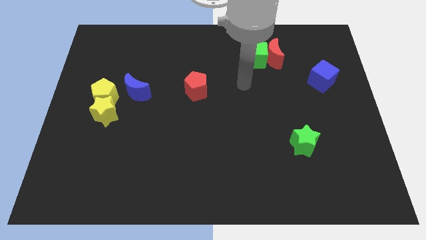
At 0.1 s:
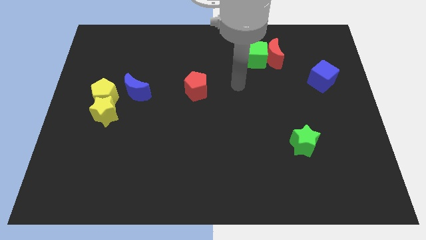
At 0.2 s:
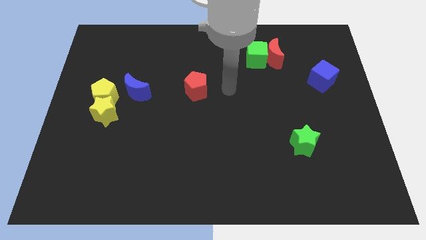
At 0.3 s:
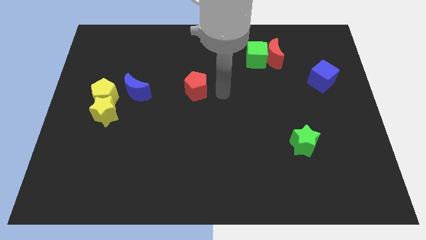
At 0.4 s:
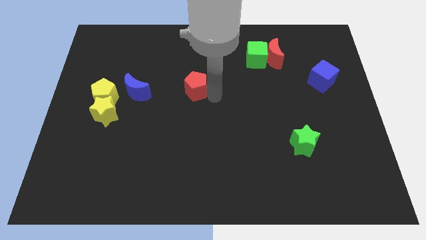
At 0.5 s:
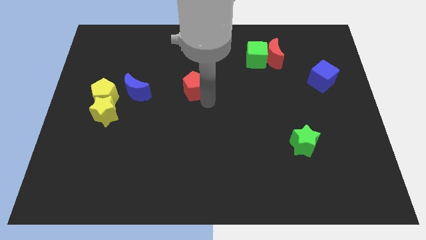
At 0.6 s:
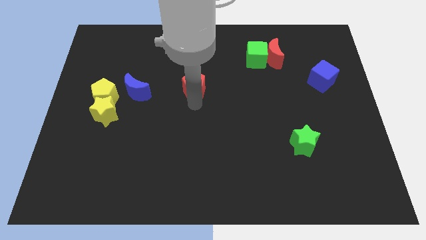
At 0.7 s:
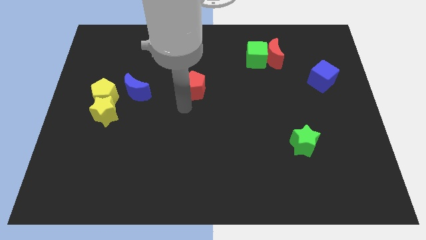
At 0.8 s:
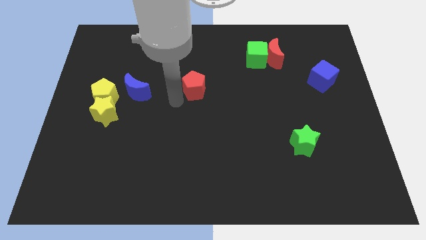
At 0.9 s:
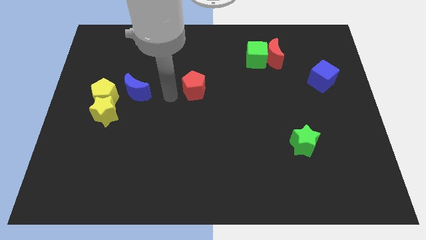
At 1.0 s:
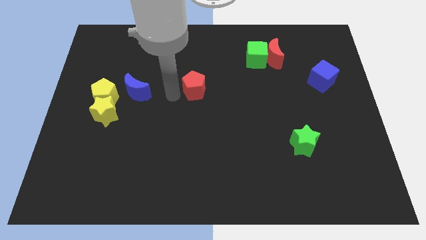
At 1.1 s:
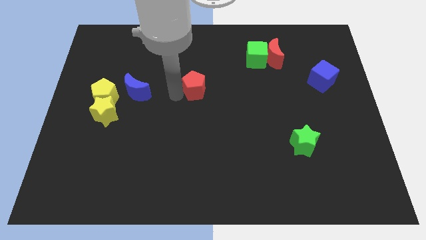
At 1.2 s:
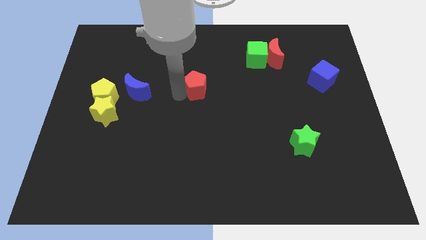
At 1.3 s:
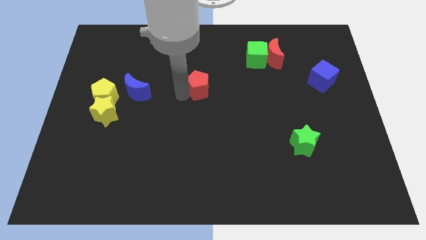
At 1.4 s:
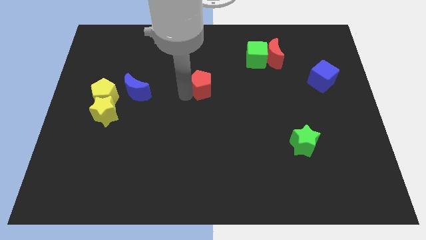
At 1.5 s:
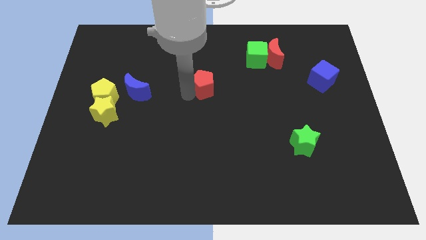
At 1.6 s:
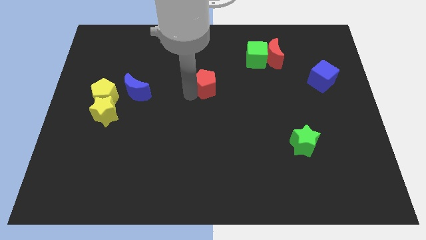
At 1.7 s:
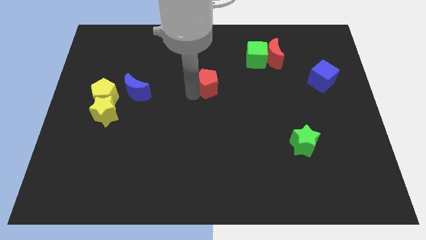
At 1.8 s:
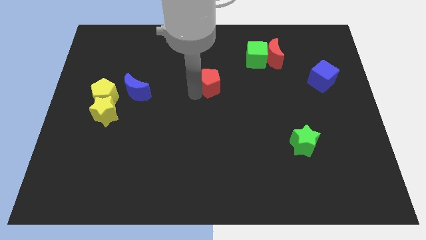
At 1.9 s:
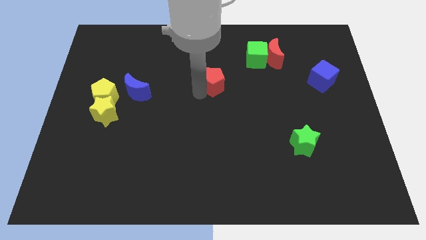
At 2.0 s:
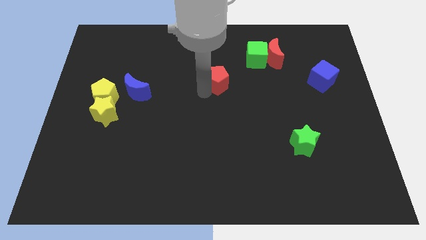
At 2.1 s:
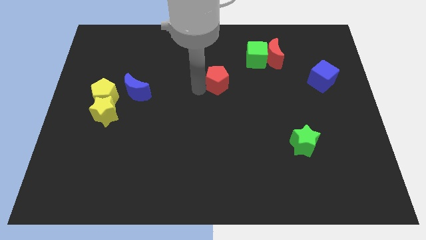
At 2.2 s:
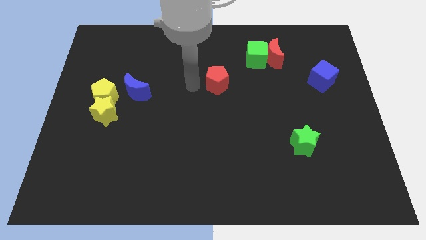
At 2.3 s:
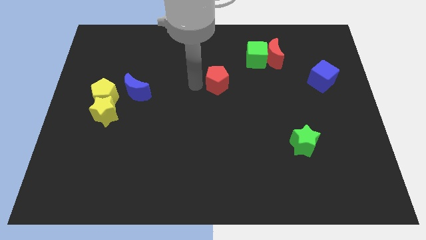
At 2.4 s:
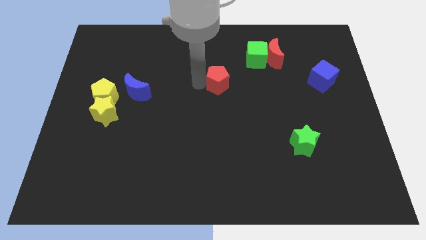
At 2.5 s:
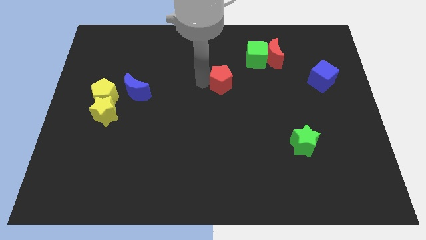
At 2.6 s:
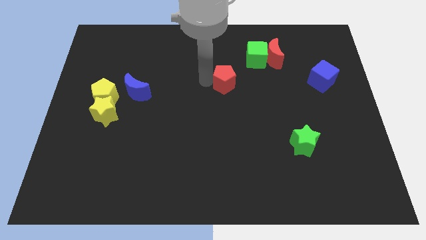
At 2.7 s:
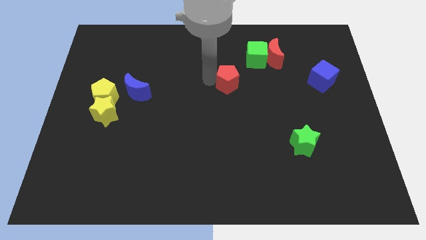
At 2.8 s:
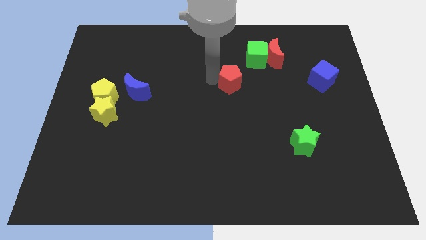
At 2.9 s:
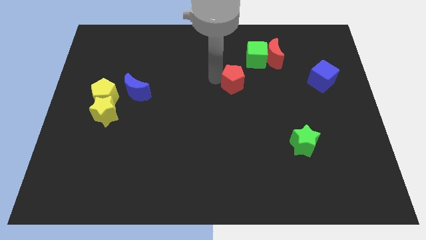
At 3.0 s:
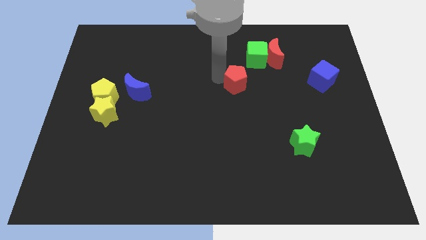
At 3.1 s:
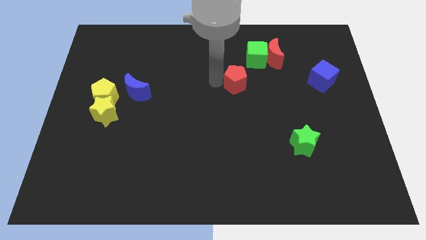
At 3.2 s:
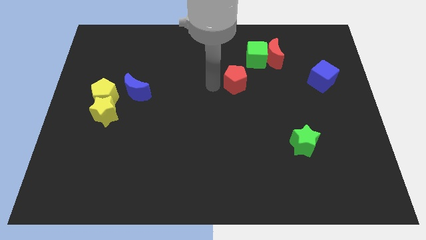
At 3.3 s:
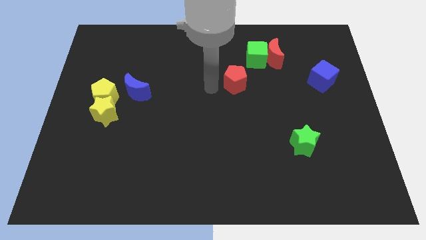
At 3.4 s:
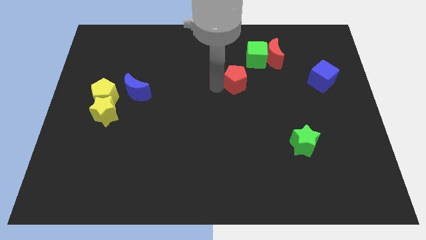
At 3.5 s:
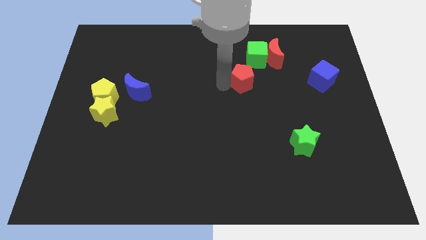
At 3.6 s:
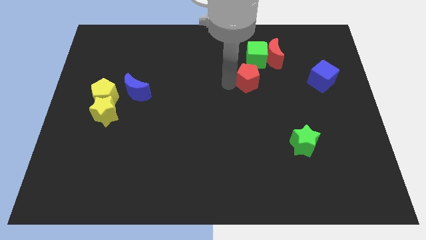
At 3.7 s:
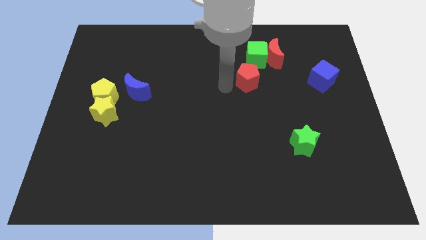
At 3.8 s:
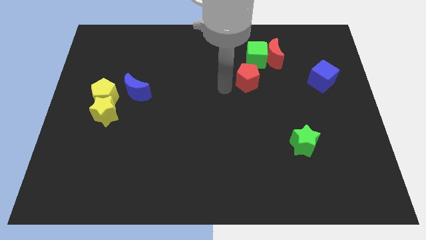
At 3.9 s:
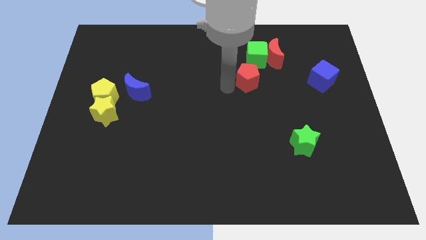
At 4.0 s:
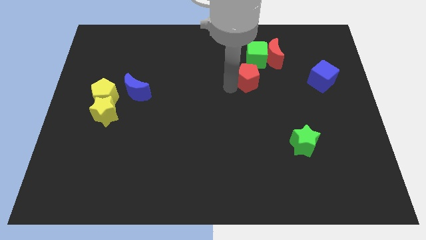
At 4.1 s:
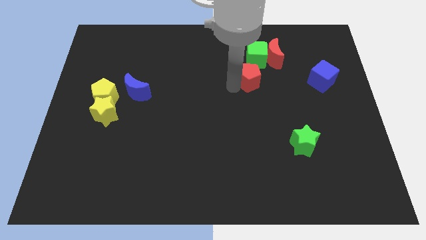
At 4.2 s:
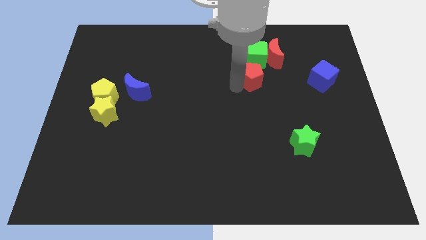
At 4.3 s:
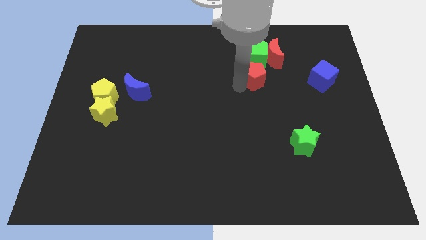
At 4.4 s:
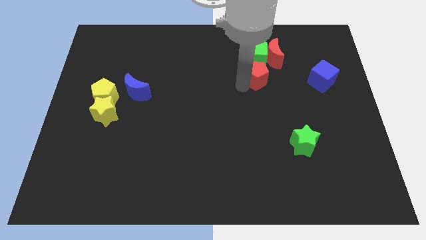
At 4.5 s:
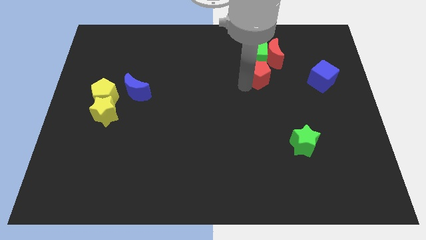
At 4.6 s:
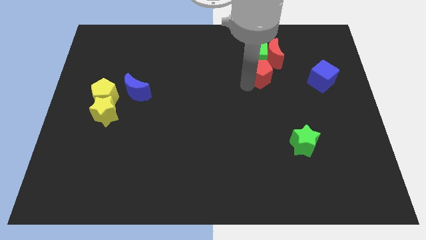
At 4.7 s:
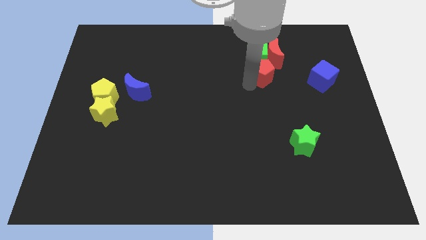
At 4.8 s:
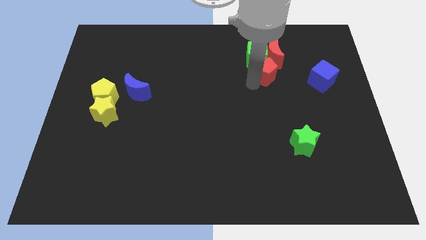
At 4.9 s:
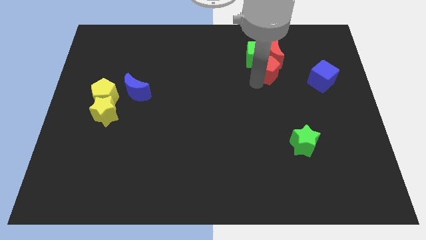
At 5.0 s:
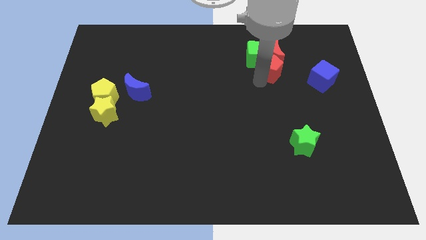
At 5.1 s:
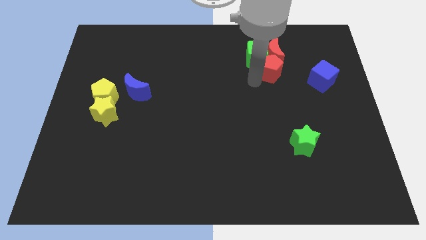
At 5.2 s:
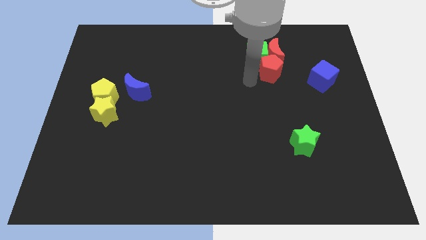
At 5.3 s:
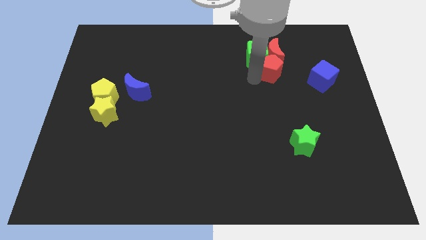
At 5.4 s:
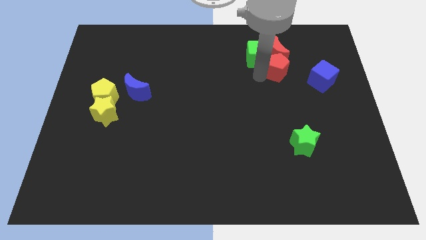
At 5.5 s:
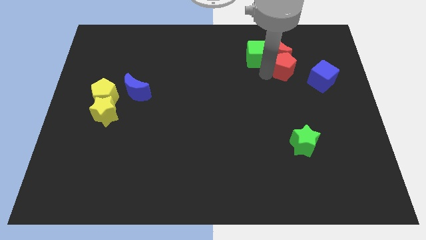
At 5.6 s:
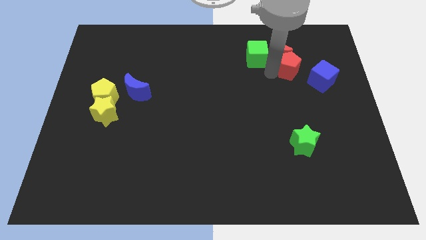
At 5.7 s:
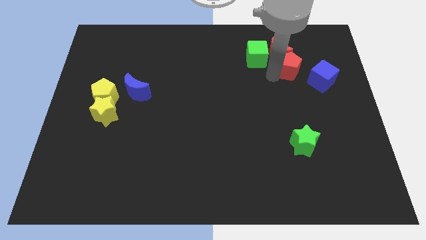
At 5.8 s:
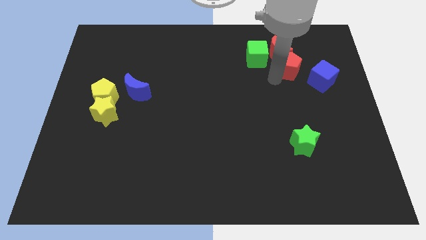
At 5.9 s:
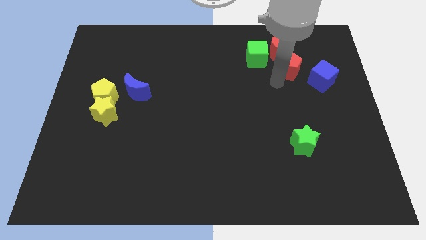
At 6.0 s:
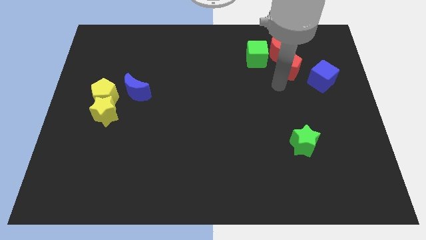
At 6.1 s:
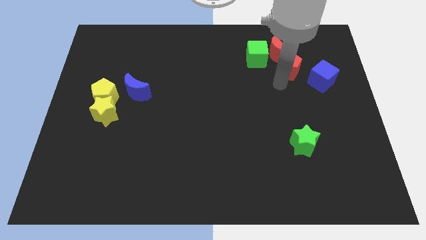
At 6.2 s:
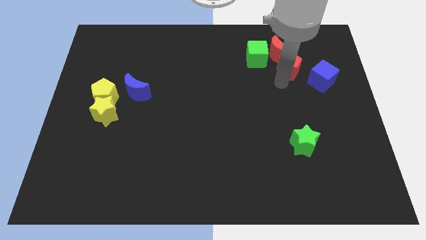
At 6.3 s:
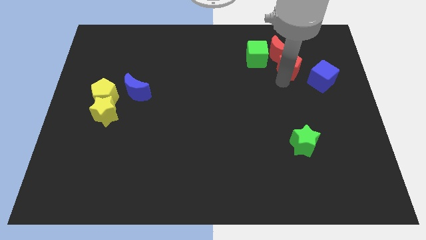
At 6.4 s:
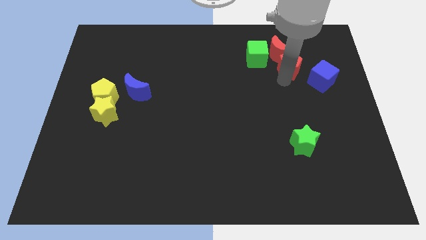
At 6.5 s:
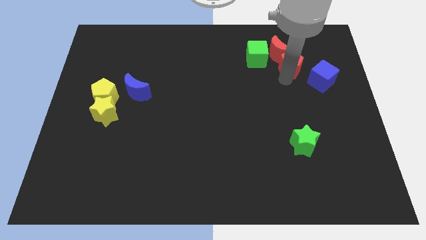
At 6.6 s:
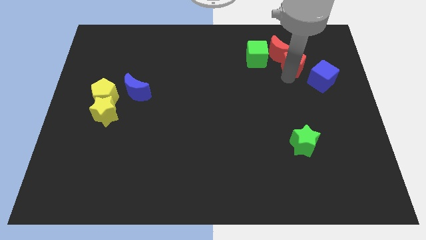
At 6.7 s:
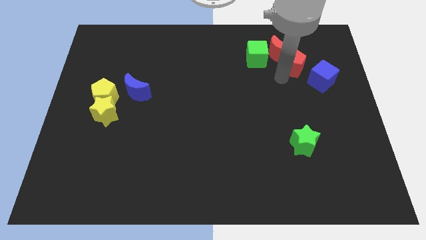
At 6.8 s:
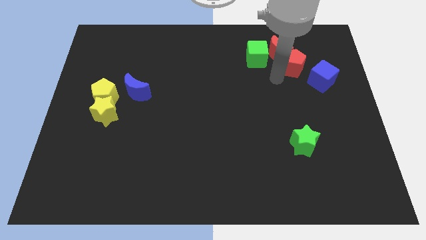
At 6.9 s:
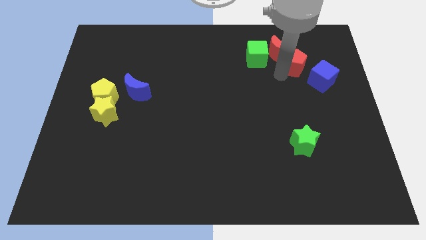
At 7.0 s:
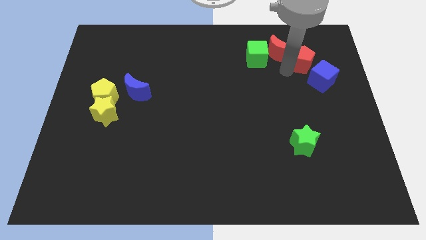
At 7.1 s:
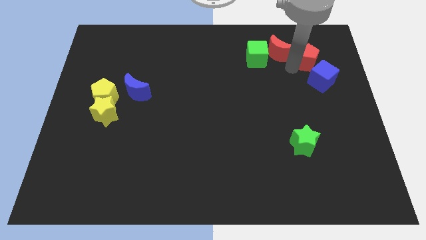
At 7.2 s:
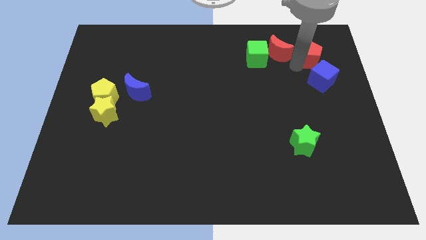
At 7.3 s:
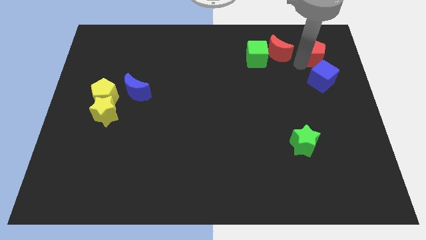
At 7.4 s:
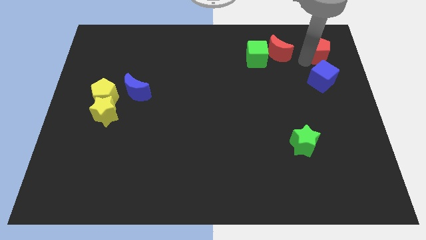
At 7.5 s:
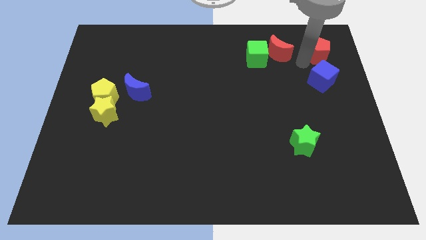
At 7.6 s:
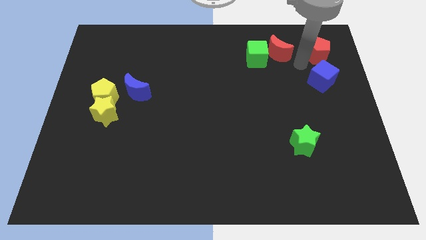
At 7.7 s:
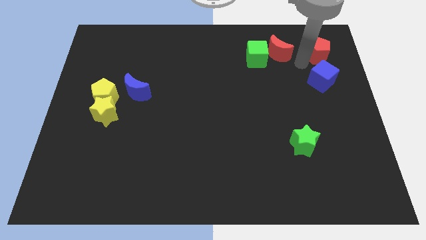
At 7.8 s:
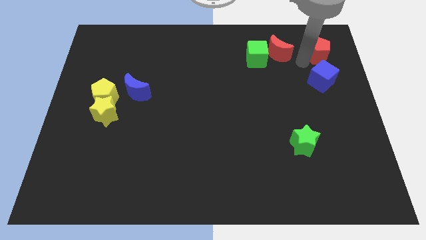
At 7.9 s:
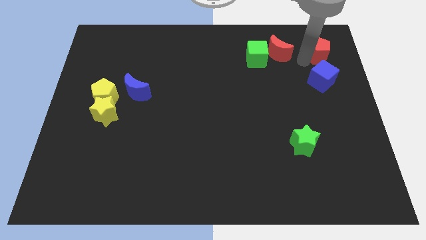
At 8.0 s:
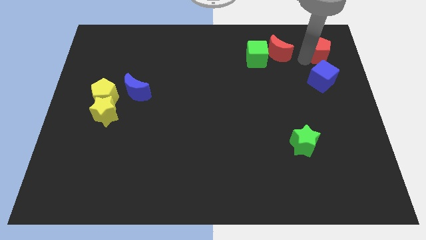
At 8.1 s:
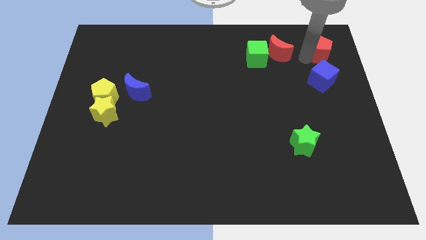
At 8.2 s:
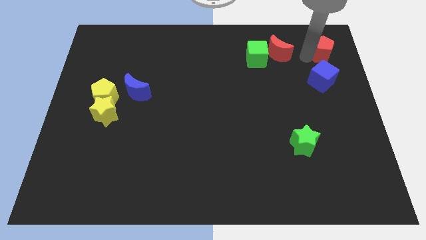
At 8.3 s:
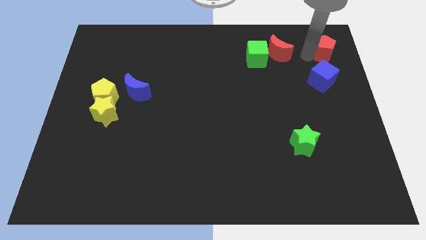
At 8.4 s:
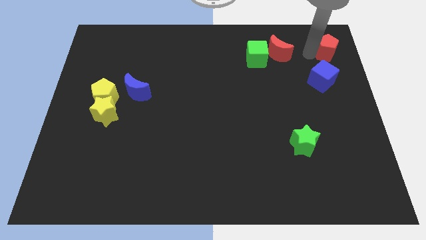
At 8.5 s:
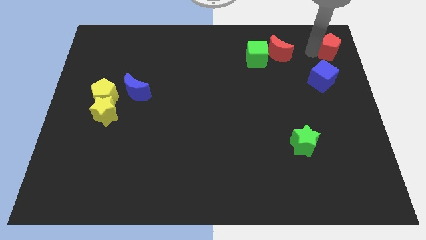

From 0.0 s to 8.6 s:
slide the red pentagon to the top right of the board
